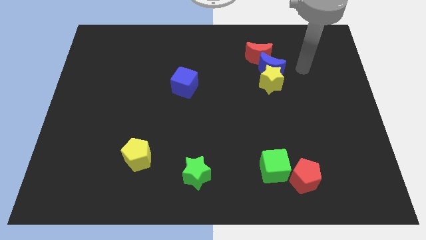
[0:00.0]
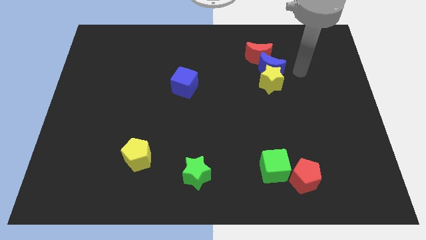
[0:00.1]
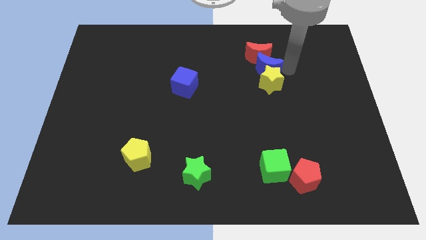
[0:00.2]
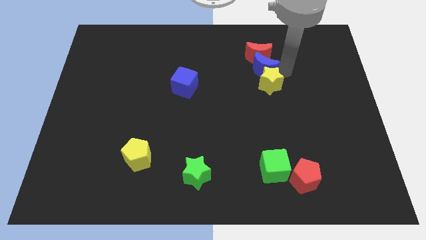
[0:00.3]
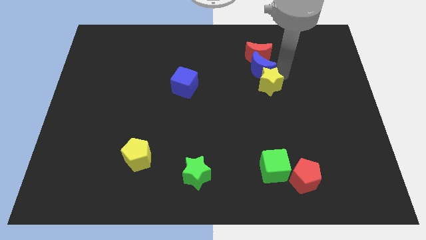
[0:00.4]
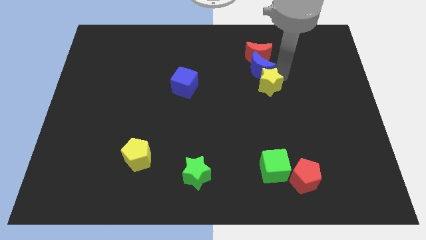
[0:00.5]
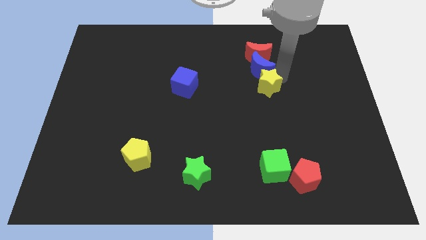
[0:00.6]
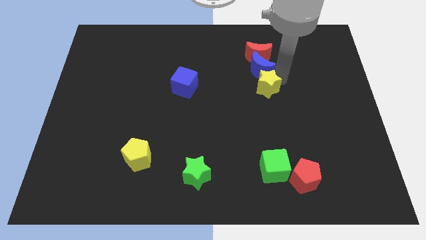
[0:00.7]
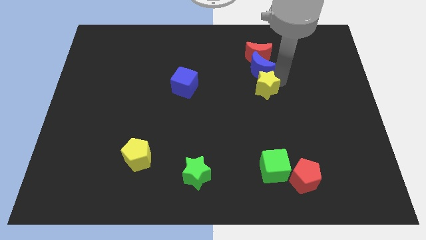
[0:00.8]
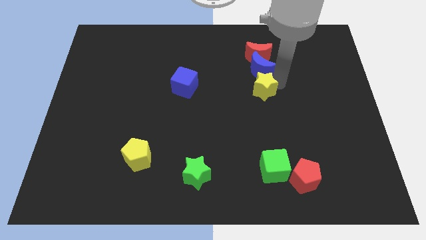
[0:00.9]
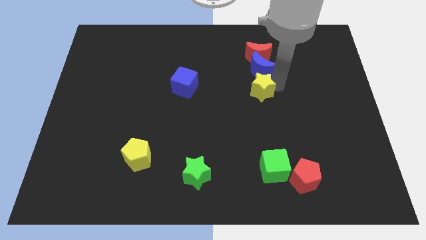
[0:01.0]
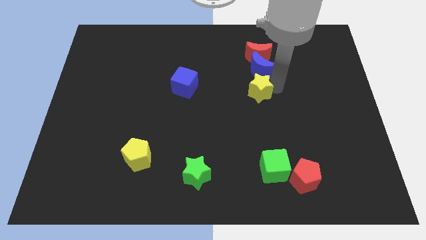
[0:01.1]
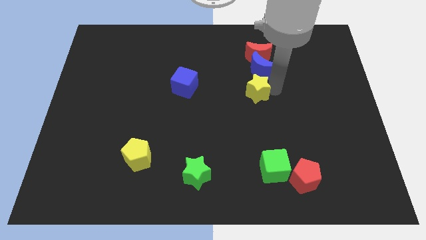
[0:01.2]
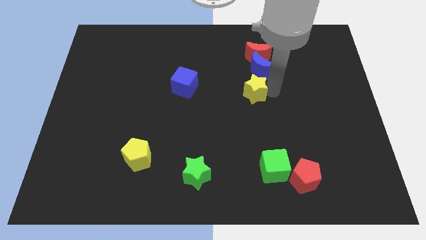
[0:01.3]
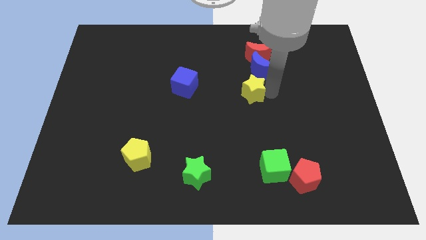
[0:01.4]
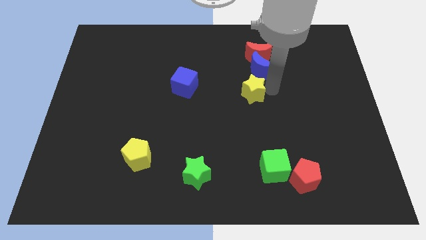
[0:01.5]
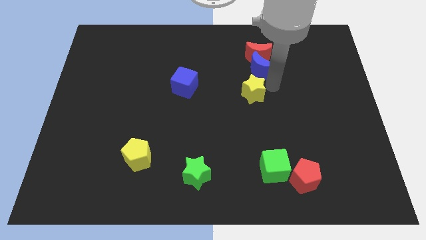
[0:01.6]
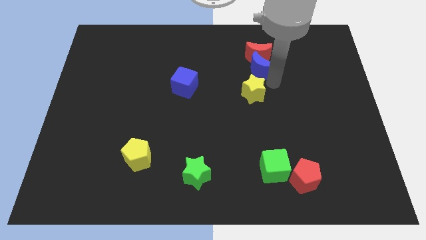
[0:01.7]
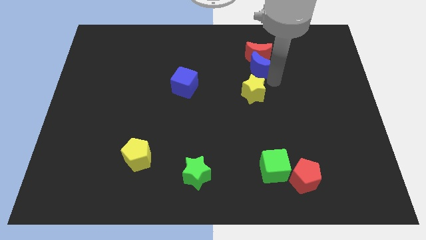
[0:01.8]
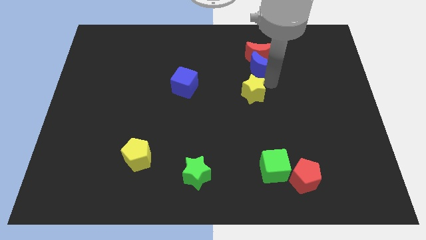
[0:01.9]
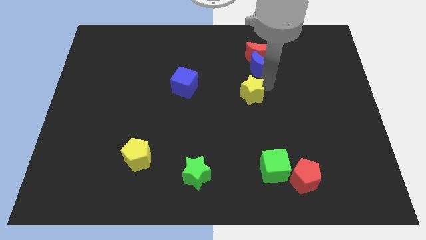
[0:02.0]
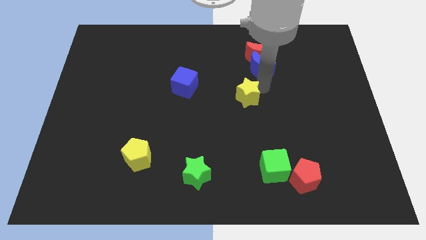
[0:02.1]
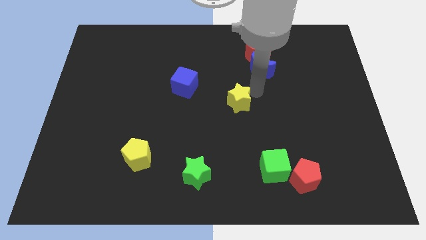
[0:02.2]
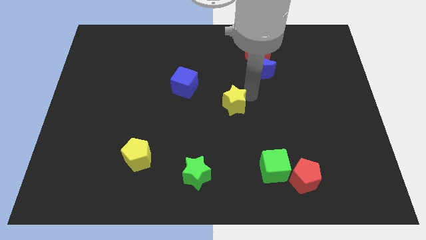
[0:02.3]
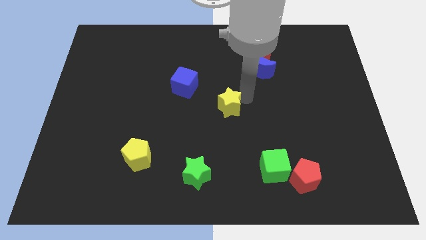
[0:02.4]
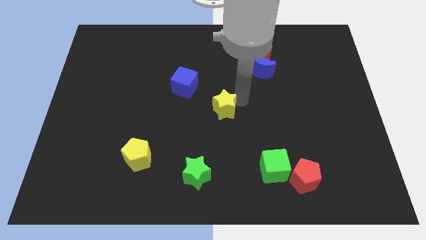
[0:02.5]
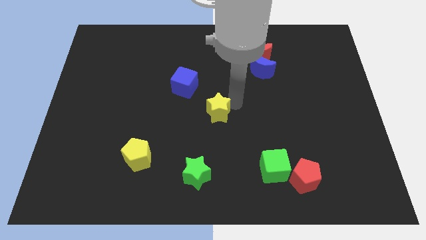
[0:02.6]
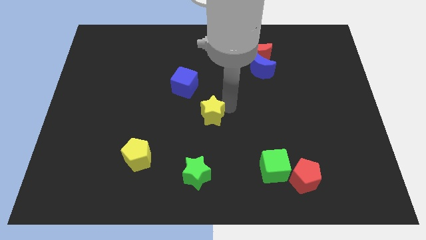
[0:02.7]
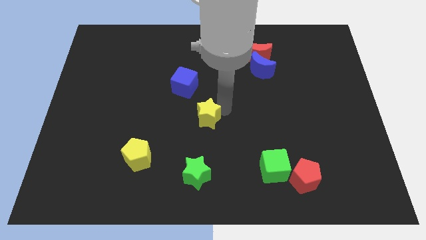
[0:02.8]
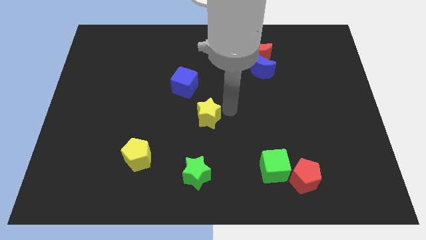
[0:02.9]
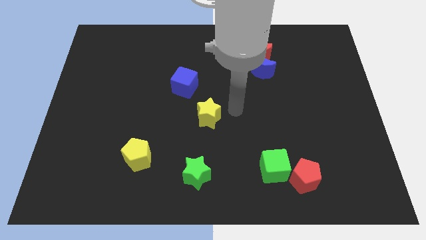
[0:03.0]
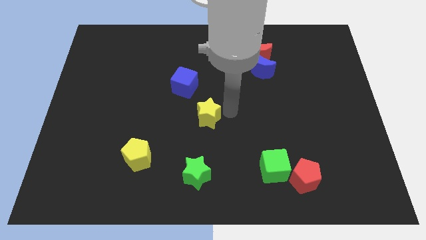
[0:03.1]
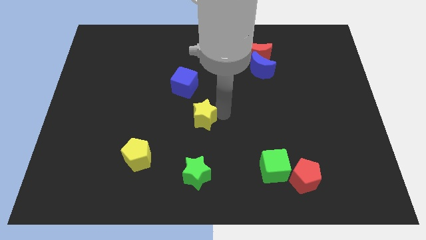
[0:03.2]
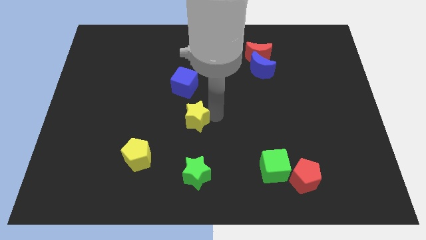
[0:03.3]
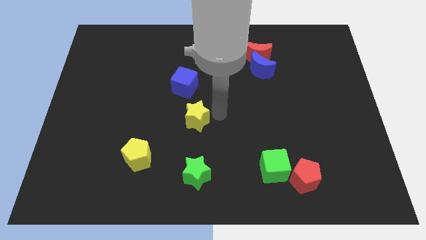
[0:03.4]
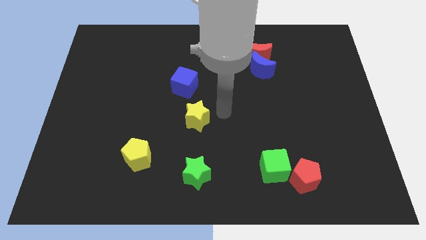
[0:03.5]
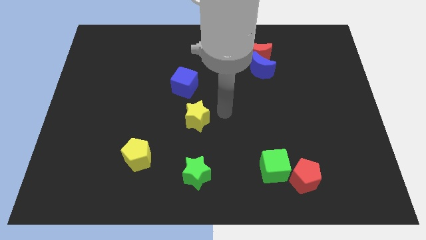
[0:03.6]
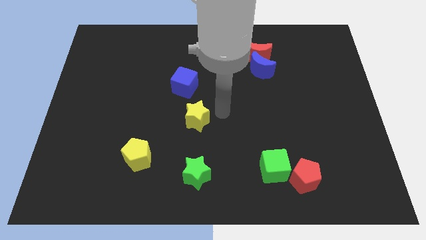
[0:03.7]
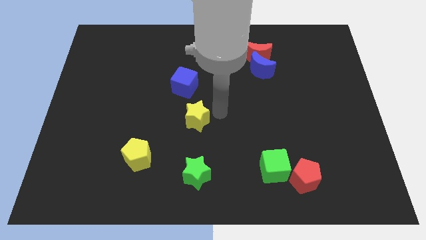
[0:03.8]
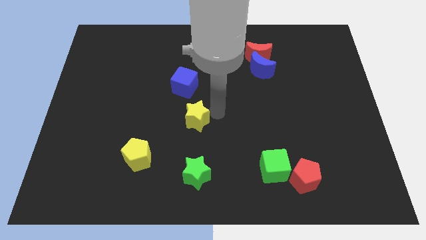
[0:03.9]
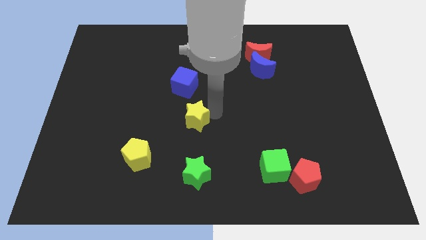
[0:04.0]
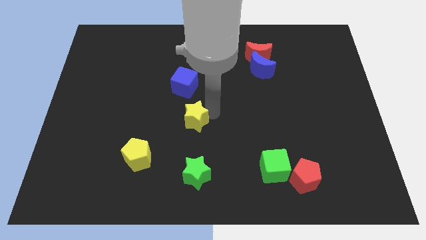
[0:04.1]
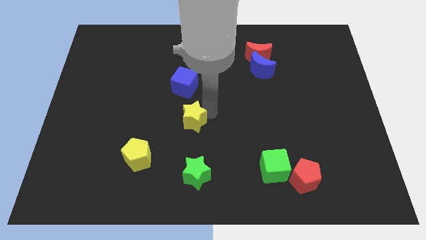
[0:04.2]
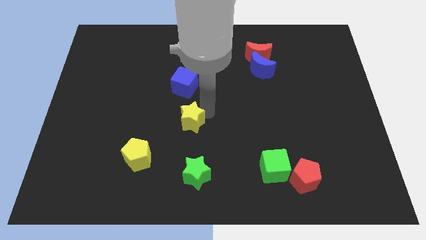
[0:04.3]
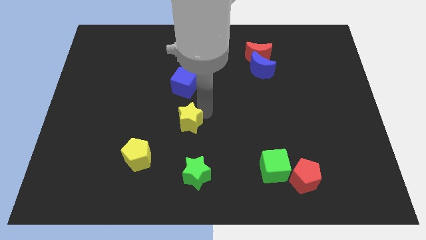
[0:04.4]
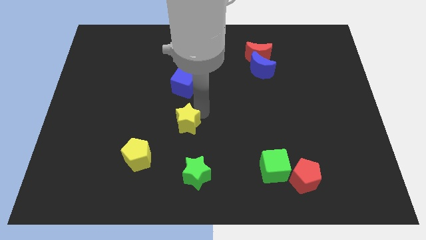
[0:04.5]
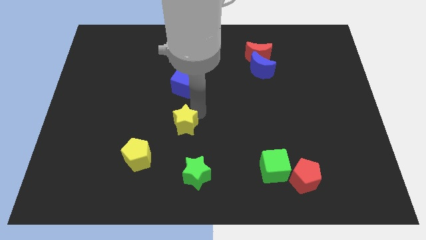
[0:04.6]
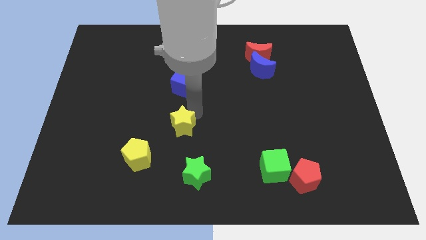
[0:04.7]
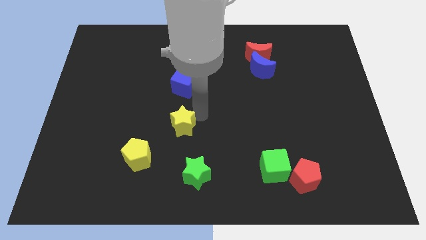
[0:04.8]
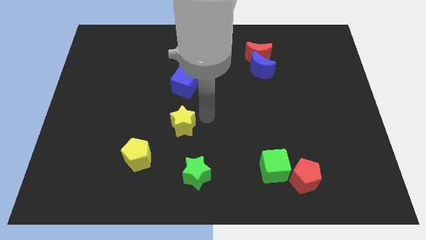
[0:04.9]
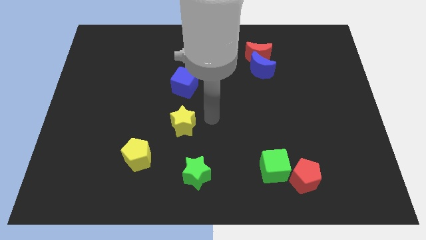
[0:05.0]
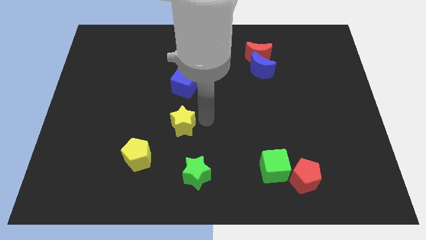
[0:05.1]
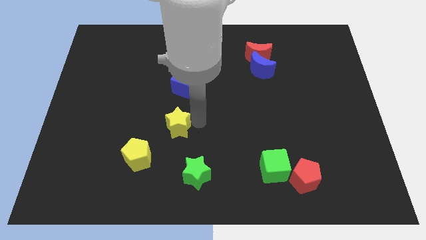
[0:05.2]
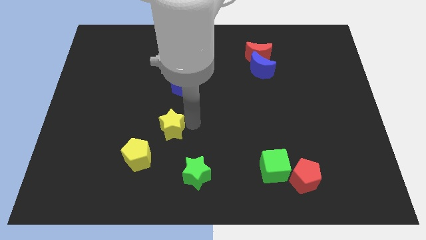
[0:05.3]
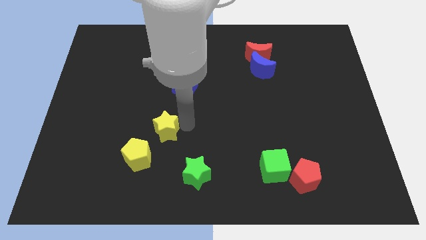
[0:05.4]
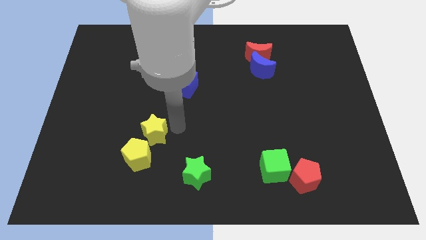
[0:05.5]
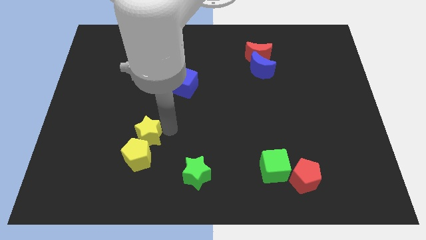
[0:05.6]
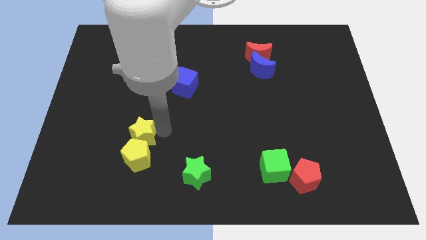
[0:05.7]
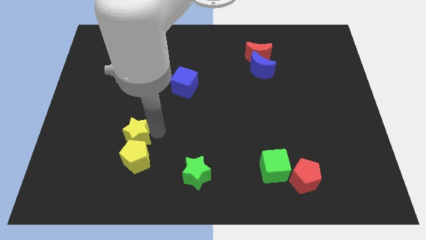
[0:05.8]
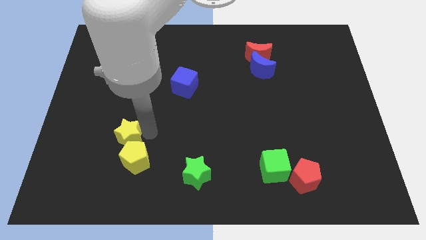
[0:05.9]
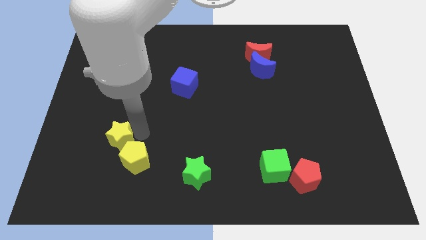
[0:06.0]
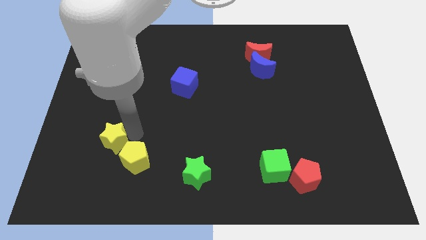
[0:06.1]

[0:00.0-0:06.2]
push the yellow star just left of the yellow pentagon
